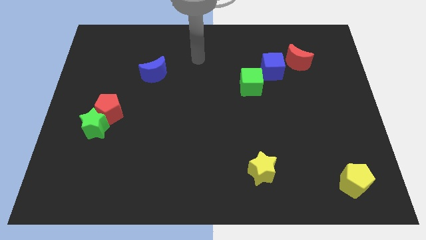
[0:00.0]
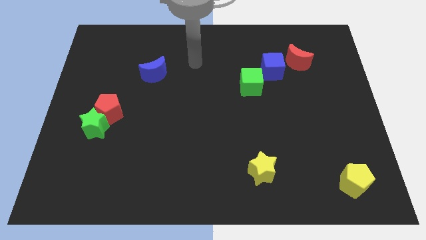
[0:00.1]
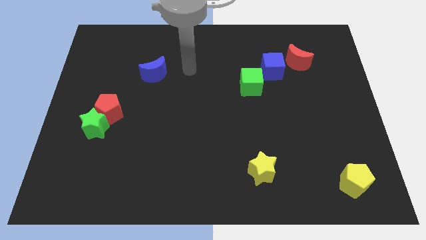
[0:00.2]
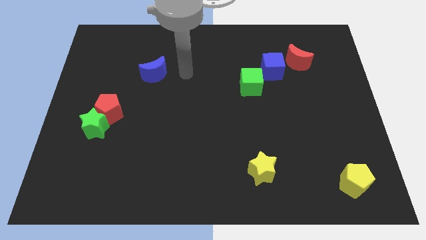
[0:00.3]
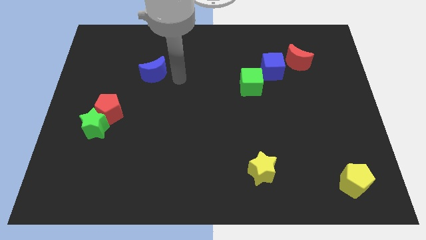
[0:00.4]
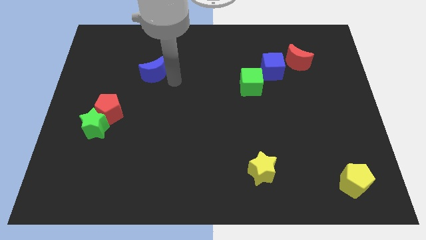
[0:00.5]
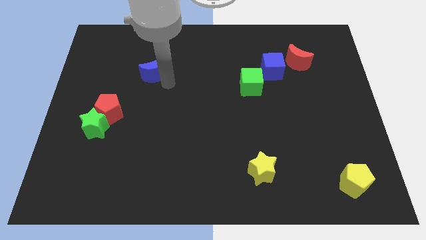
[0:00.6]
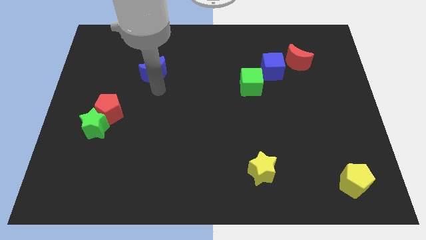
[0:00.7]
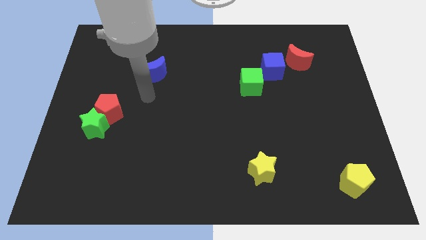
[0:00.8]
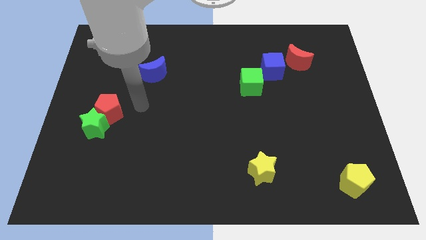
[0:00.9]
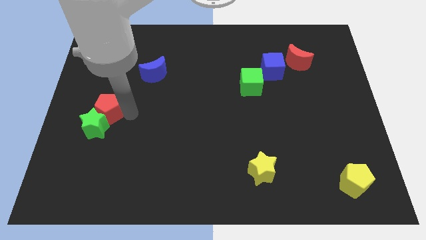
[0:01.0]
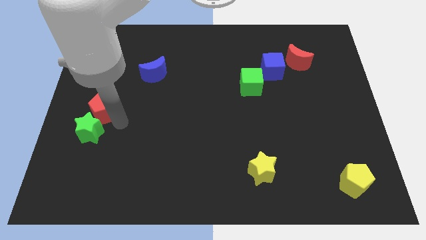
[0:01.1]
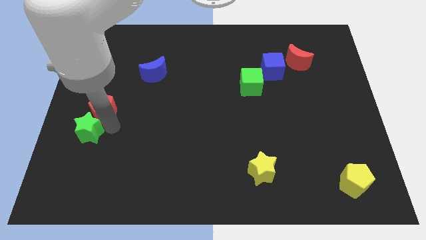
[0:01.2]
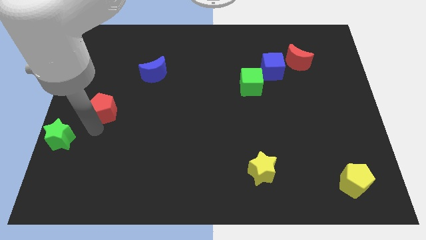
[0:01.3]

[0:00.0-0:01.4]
move the red pentagon away from the green star

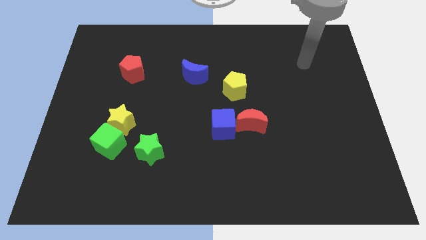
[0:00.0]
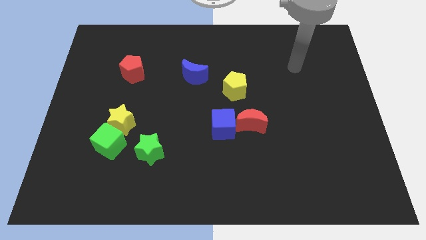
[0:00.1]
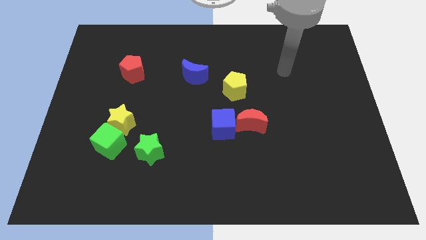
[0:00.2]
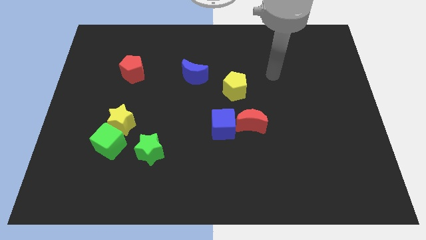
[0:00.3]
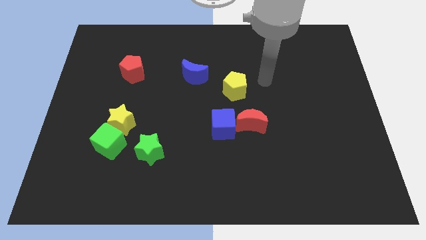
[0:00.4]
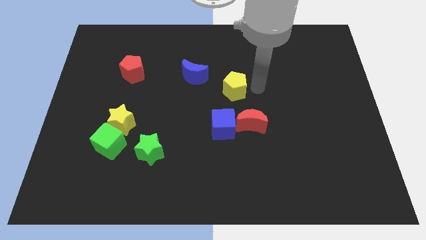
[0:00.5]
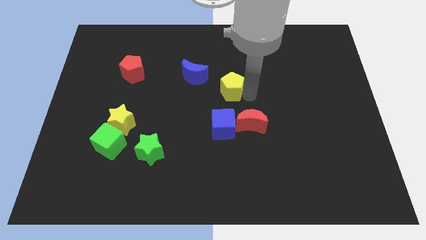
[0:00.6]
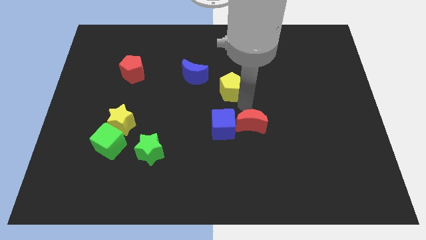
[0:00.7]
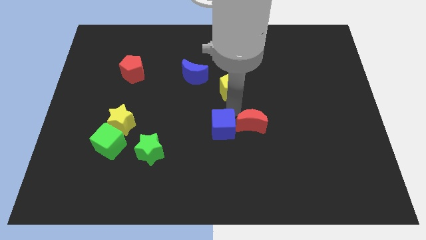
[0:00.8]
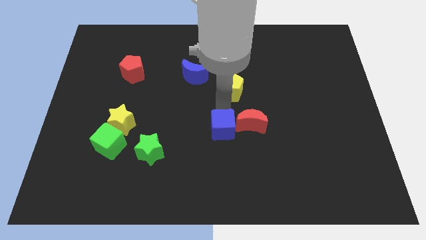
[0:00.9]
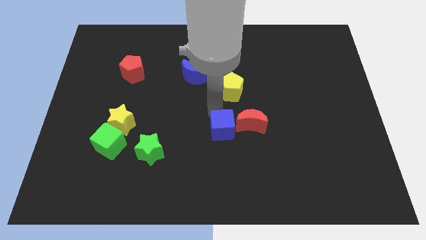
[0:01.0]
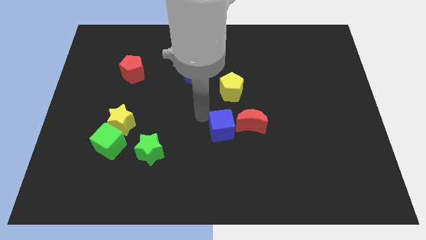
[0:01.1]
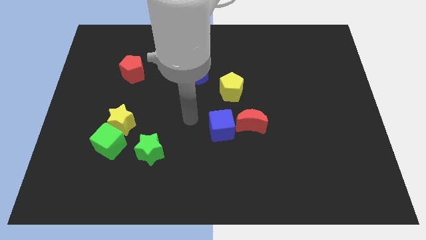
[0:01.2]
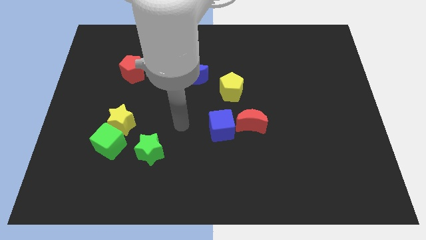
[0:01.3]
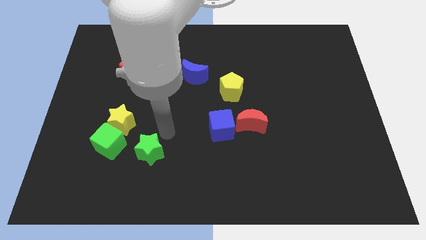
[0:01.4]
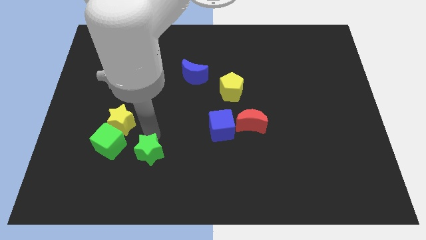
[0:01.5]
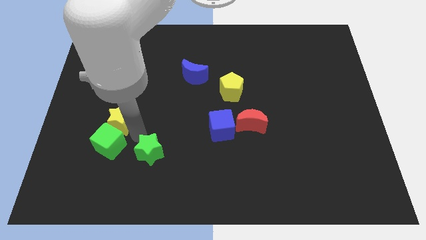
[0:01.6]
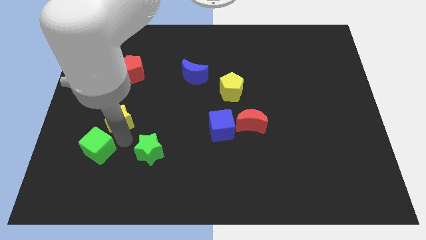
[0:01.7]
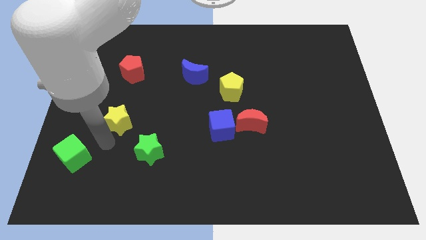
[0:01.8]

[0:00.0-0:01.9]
separate the yellow star from the green cube

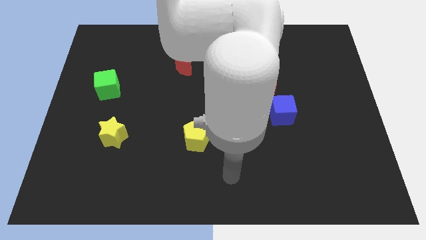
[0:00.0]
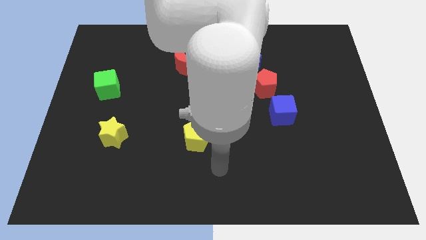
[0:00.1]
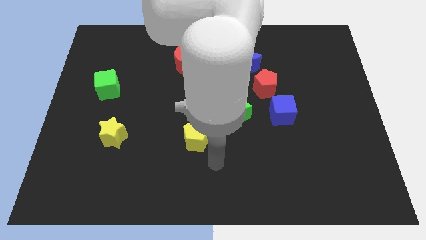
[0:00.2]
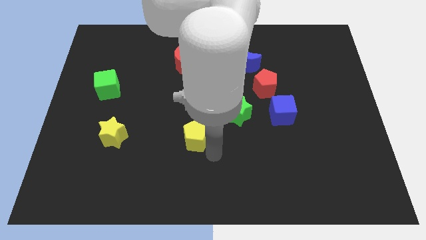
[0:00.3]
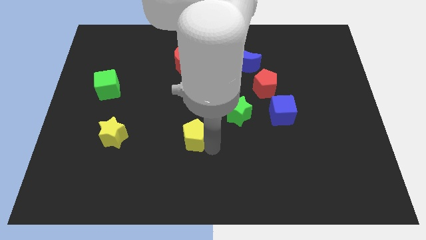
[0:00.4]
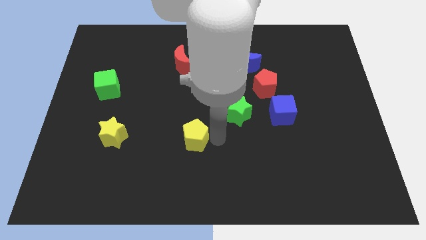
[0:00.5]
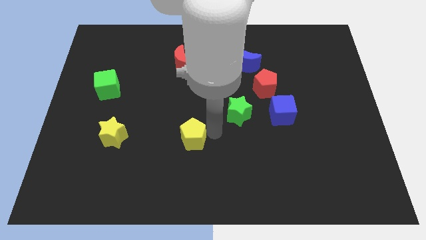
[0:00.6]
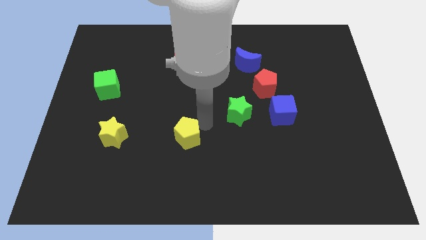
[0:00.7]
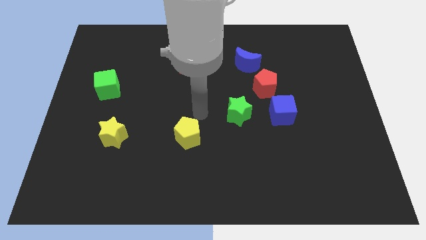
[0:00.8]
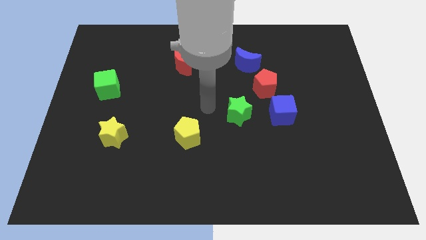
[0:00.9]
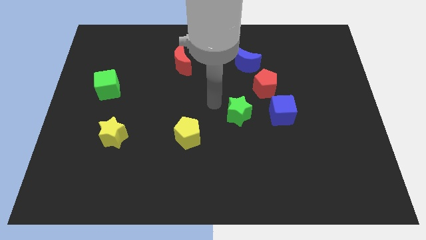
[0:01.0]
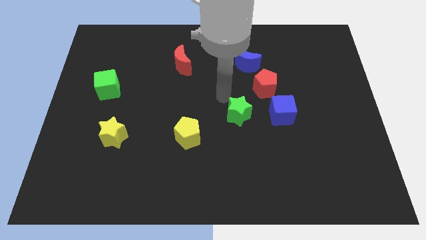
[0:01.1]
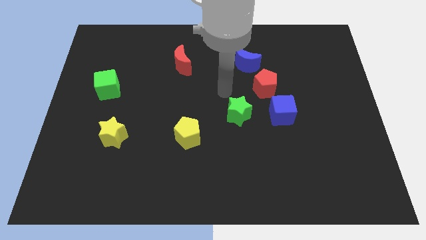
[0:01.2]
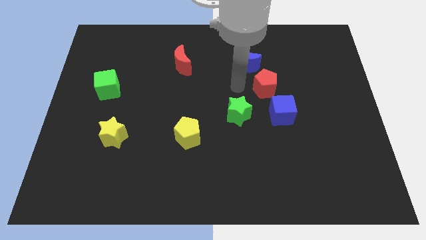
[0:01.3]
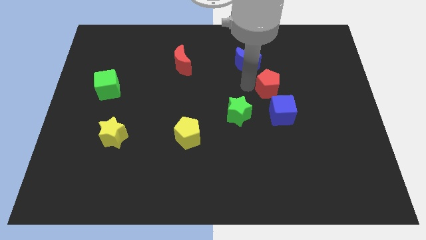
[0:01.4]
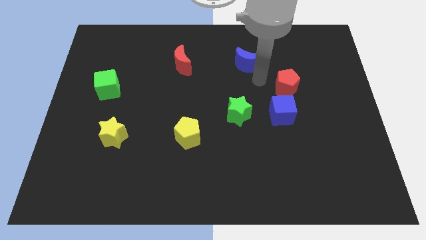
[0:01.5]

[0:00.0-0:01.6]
move the blue moon away from the red pentagon

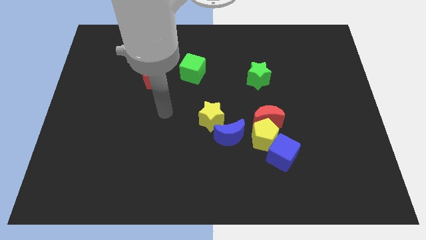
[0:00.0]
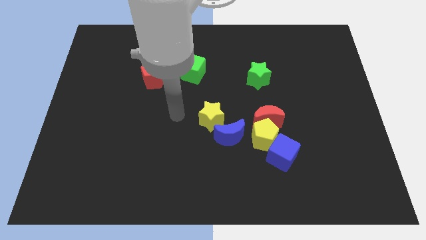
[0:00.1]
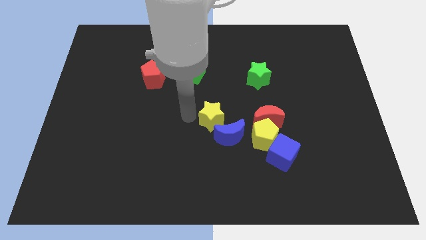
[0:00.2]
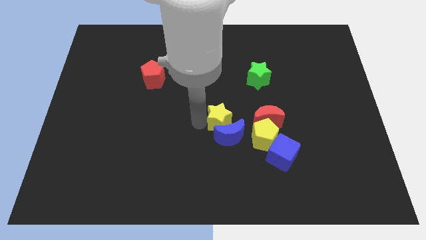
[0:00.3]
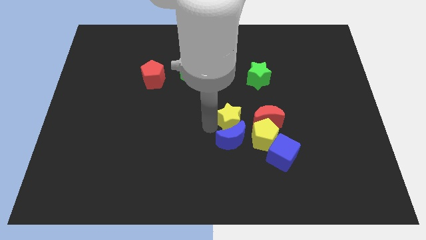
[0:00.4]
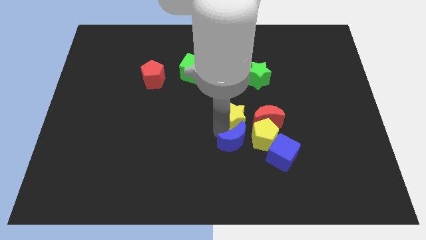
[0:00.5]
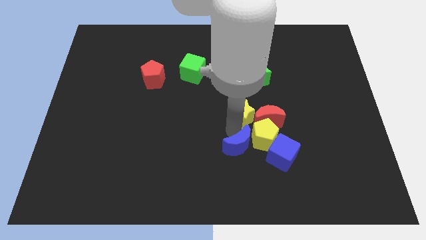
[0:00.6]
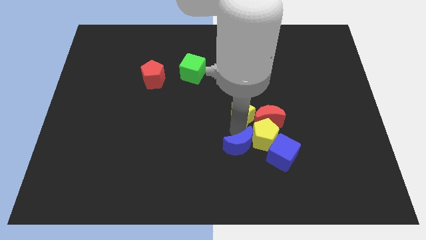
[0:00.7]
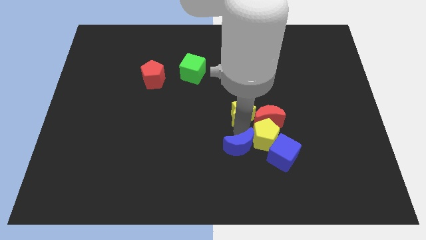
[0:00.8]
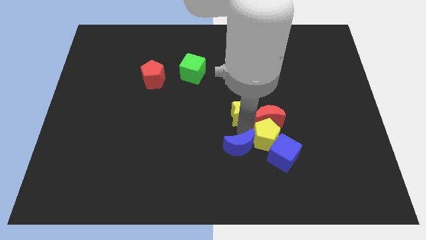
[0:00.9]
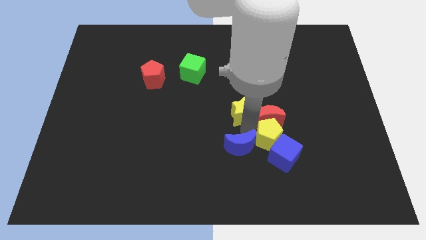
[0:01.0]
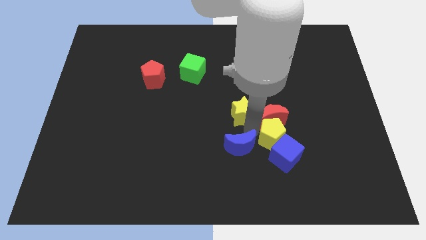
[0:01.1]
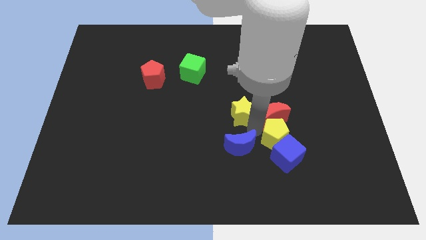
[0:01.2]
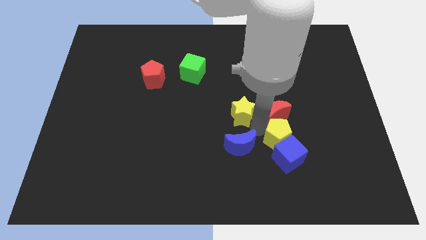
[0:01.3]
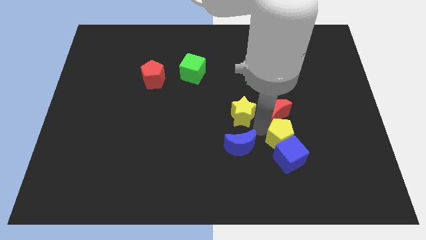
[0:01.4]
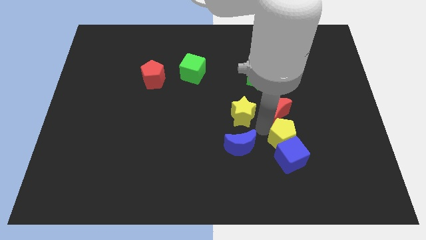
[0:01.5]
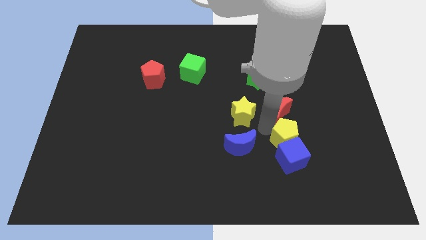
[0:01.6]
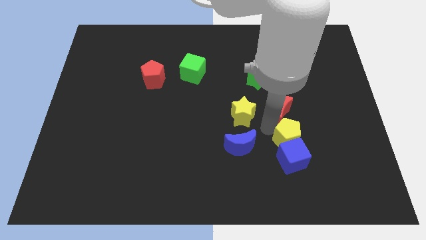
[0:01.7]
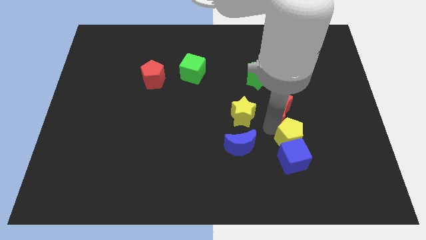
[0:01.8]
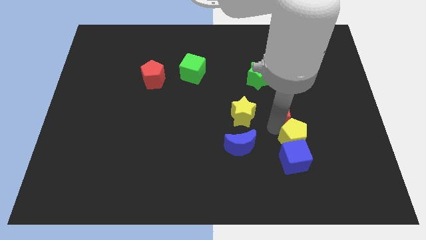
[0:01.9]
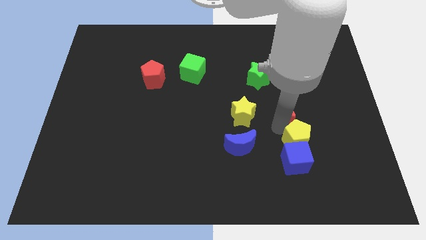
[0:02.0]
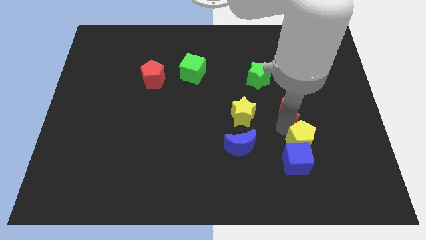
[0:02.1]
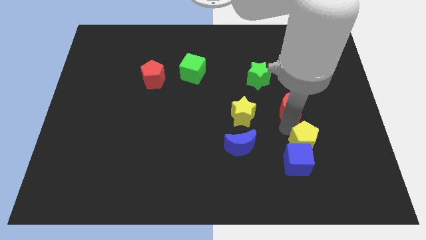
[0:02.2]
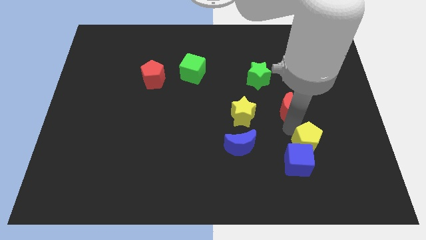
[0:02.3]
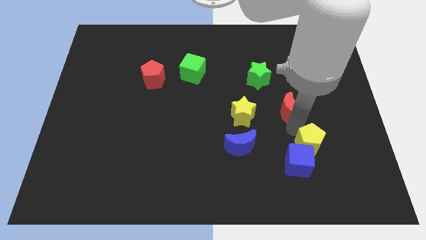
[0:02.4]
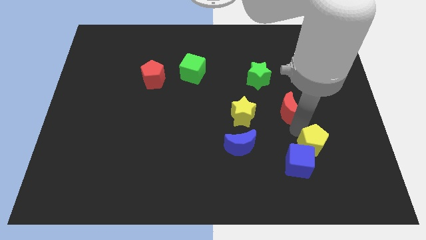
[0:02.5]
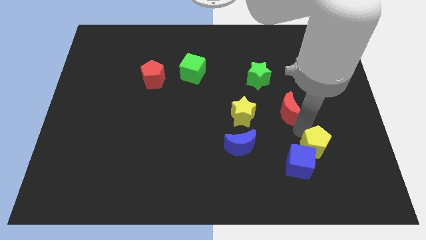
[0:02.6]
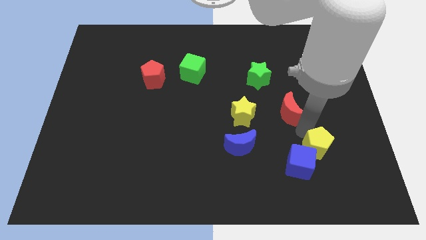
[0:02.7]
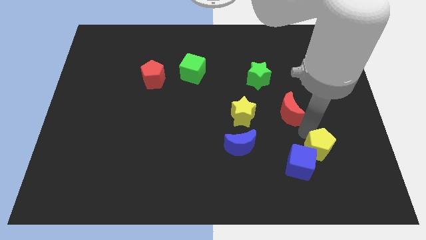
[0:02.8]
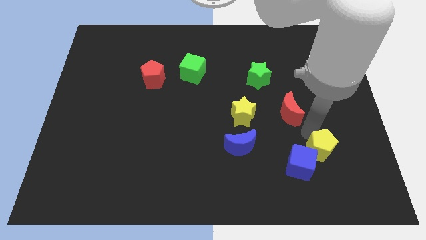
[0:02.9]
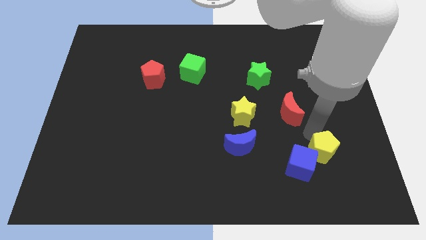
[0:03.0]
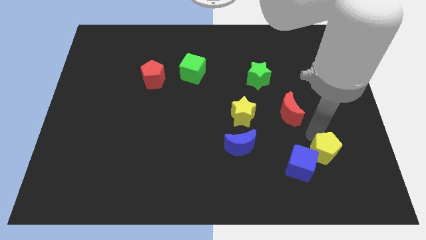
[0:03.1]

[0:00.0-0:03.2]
separate the yellow pentagon from the group

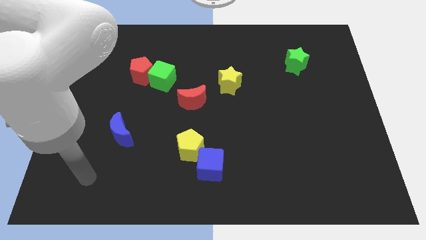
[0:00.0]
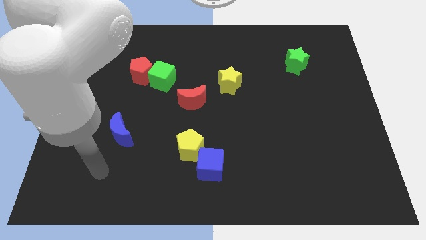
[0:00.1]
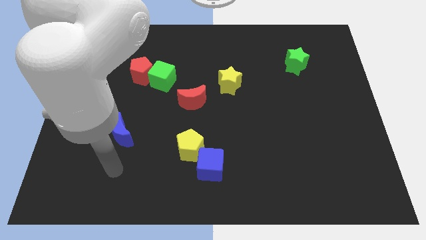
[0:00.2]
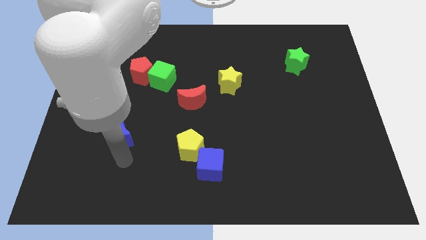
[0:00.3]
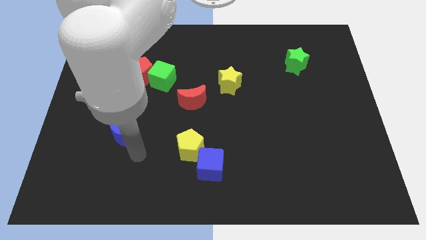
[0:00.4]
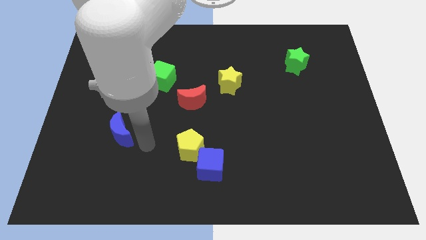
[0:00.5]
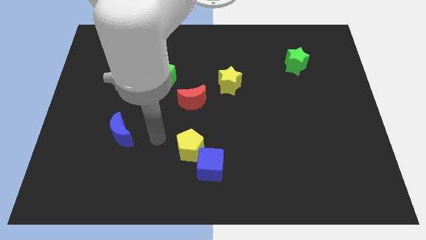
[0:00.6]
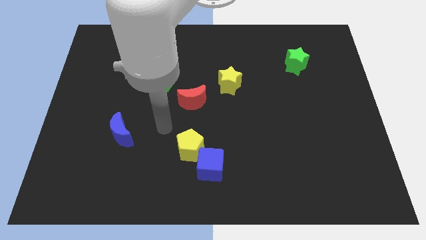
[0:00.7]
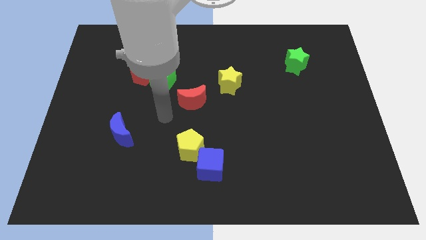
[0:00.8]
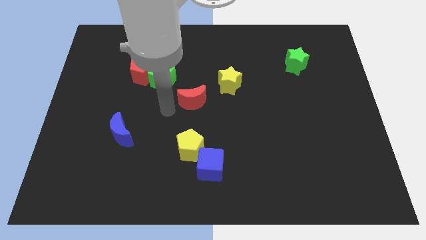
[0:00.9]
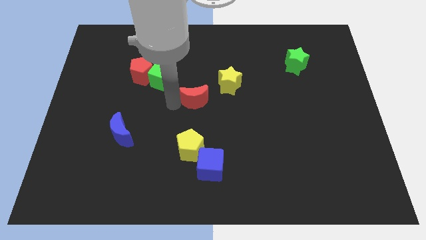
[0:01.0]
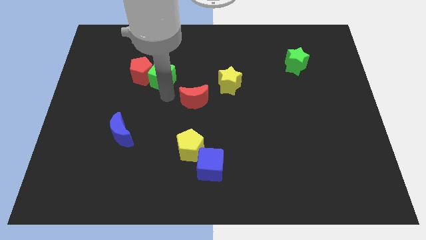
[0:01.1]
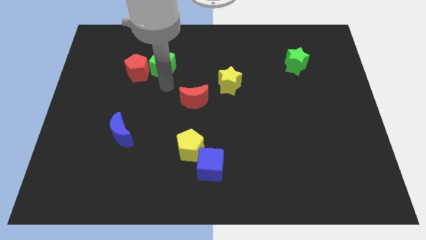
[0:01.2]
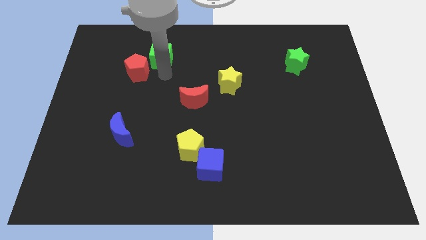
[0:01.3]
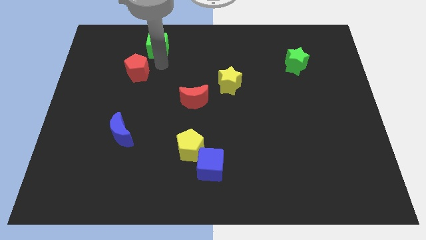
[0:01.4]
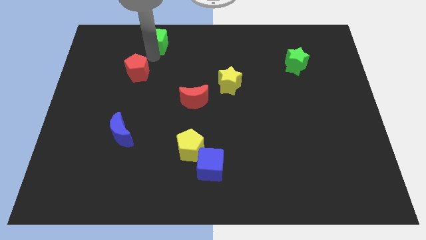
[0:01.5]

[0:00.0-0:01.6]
pull the red pentagon apart from the green cube
